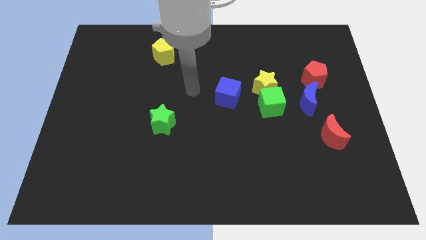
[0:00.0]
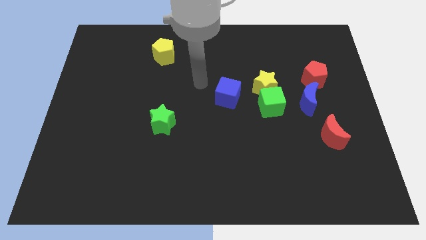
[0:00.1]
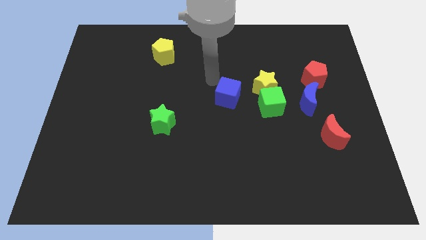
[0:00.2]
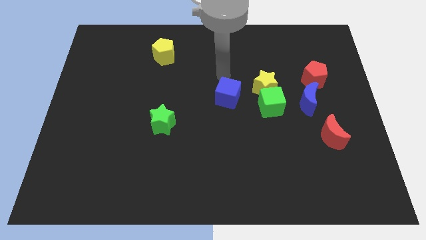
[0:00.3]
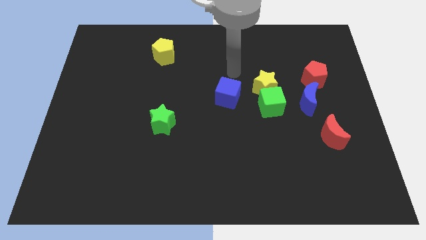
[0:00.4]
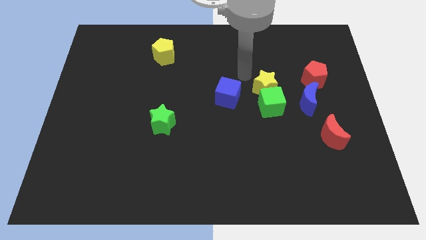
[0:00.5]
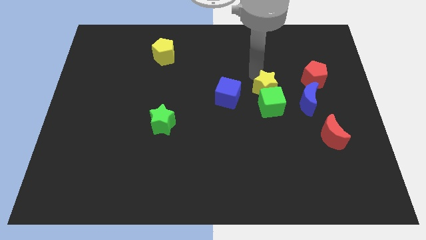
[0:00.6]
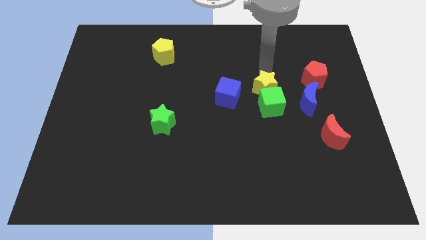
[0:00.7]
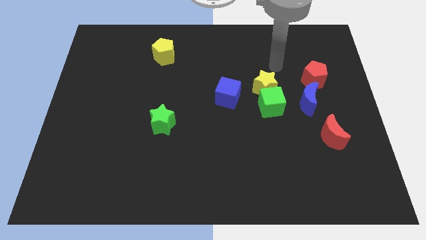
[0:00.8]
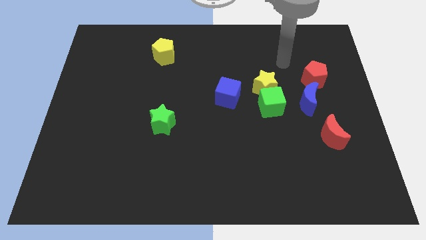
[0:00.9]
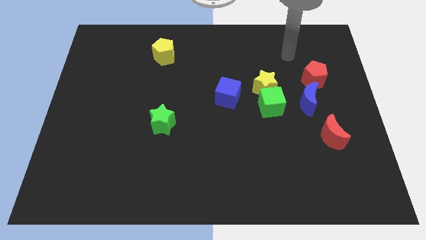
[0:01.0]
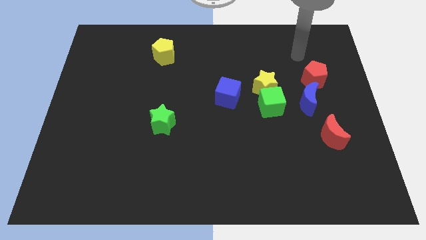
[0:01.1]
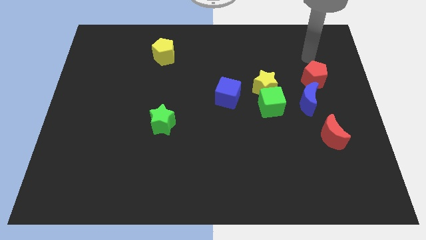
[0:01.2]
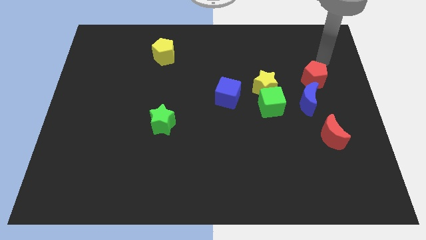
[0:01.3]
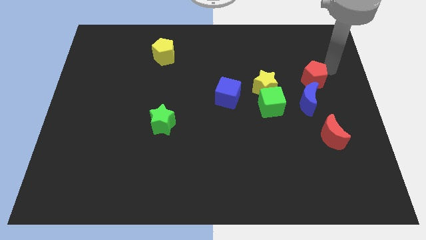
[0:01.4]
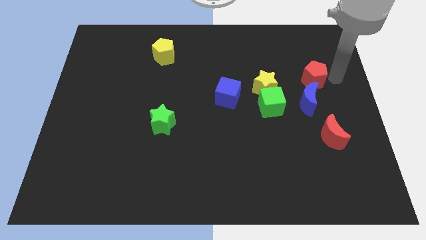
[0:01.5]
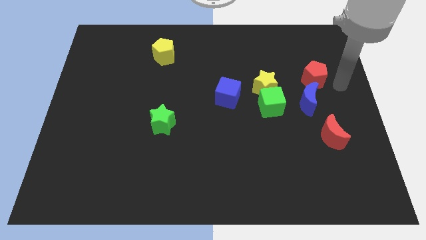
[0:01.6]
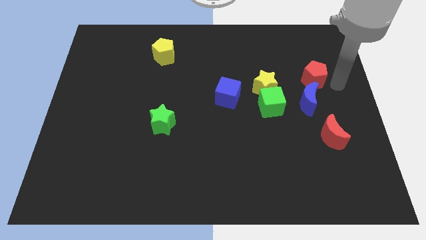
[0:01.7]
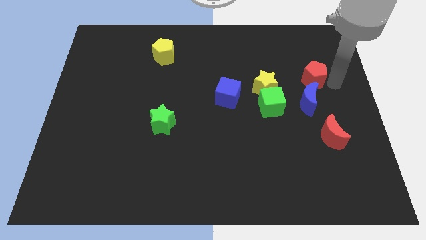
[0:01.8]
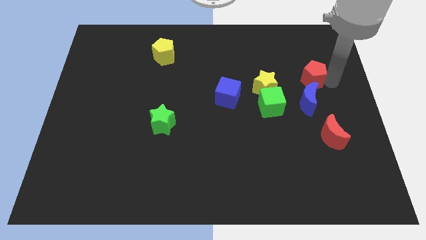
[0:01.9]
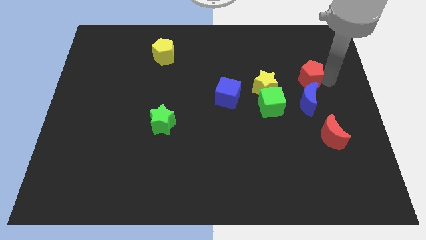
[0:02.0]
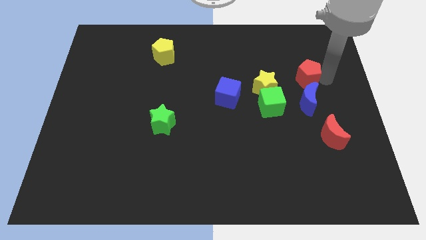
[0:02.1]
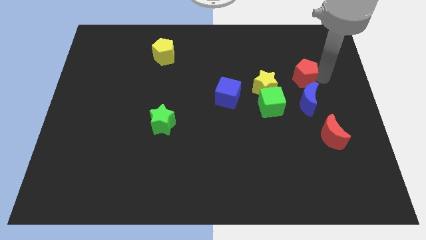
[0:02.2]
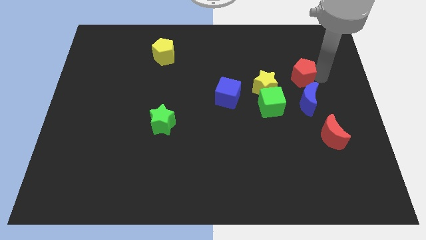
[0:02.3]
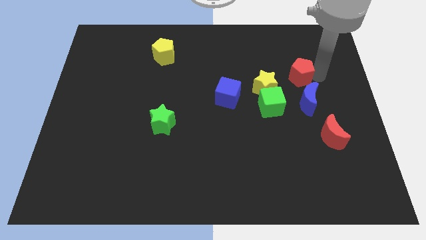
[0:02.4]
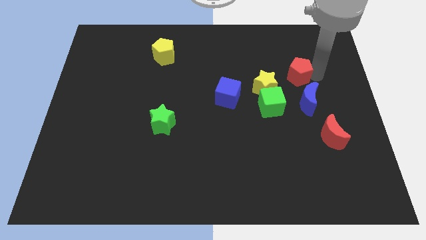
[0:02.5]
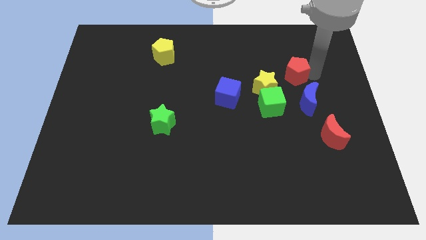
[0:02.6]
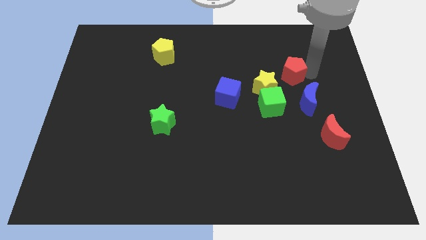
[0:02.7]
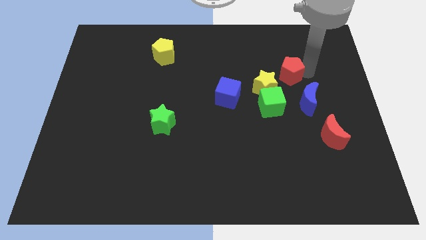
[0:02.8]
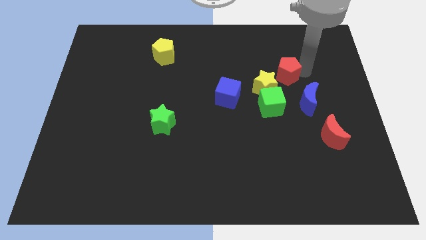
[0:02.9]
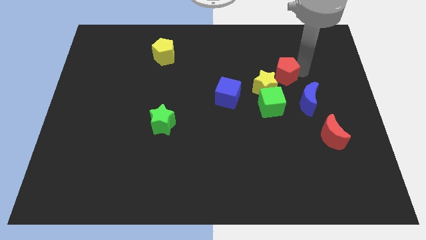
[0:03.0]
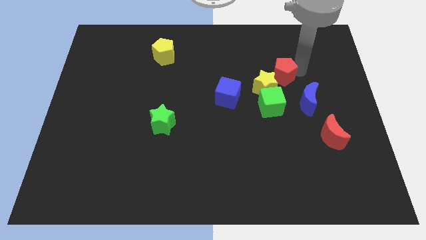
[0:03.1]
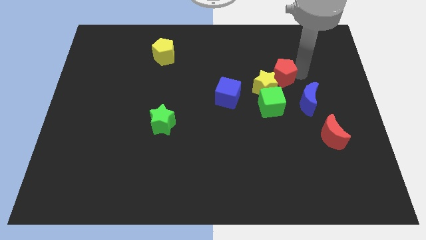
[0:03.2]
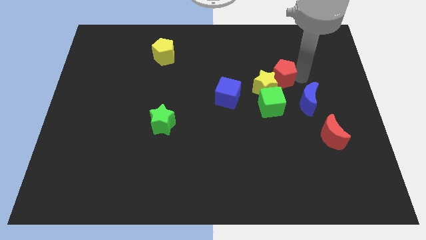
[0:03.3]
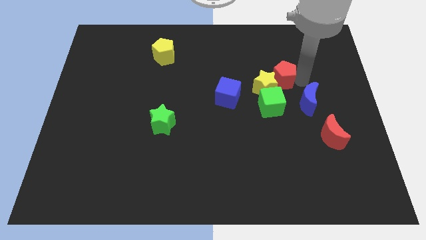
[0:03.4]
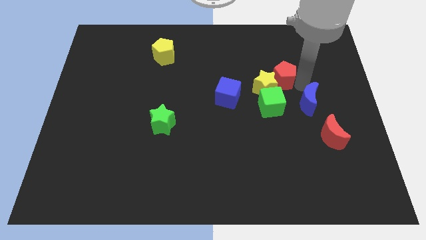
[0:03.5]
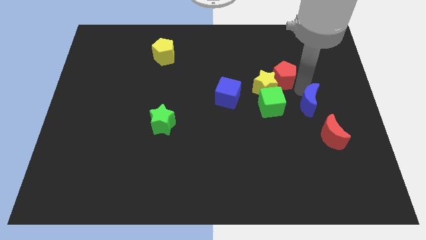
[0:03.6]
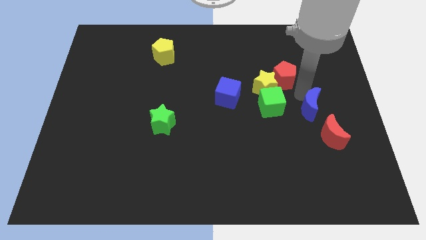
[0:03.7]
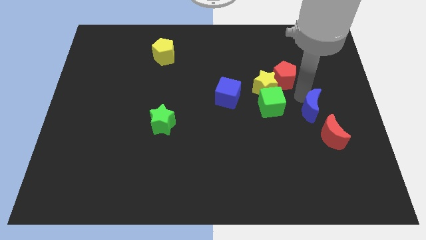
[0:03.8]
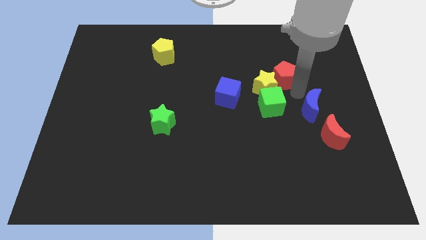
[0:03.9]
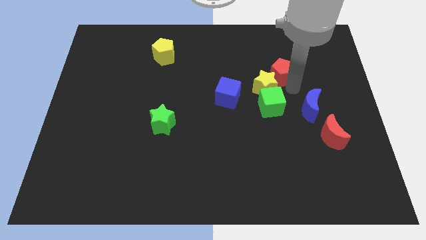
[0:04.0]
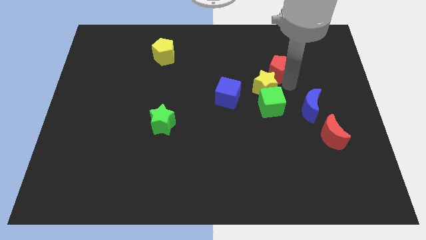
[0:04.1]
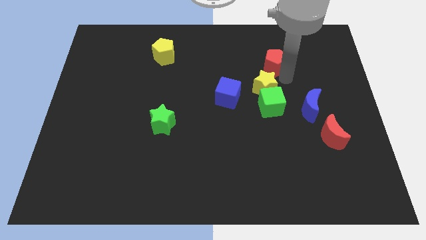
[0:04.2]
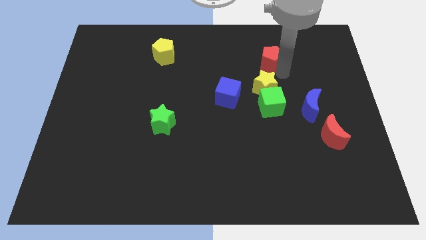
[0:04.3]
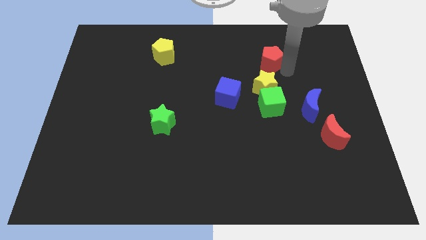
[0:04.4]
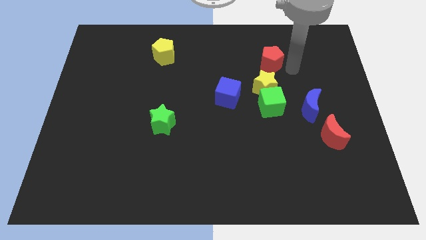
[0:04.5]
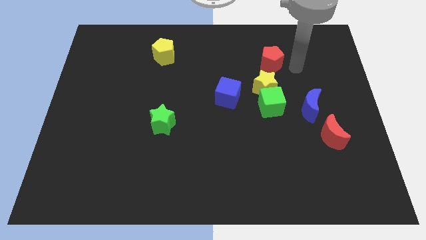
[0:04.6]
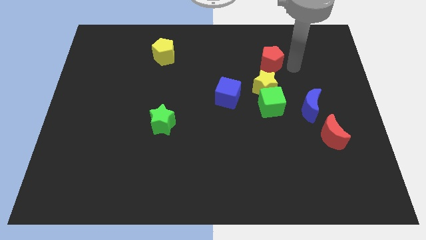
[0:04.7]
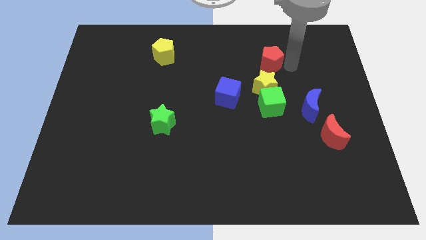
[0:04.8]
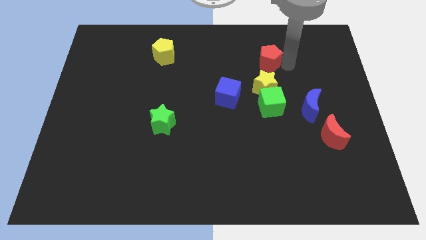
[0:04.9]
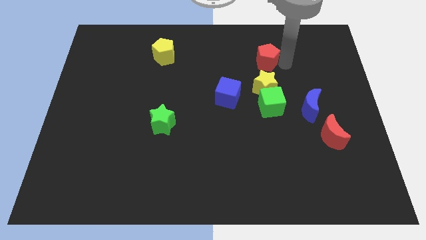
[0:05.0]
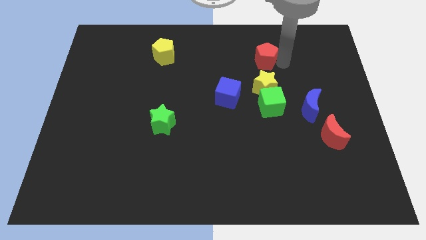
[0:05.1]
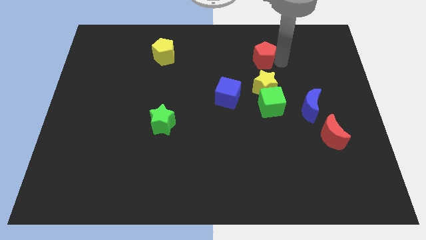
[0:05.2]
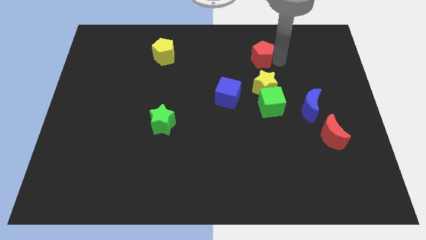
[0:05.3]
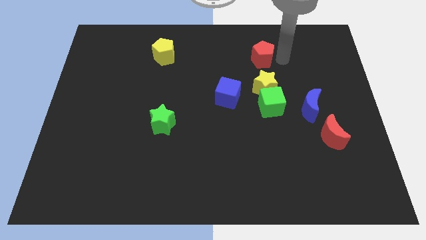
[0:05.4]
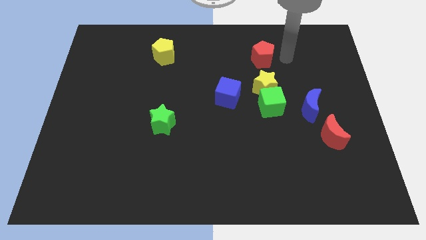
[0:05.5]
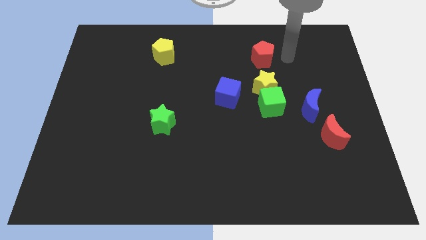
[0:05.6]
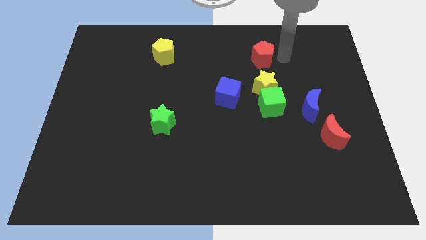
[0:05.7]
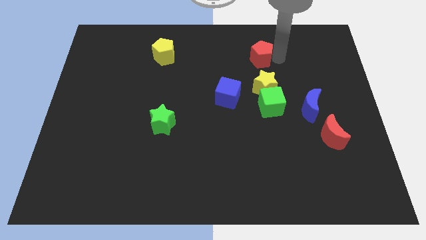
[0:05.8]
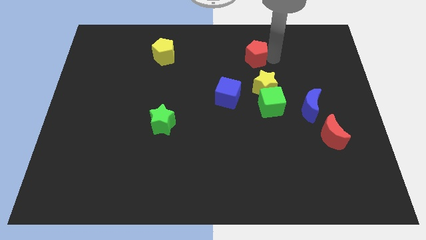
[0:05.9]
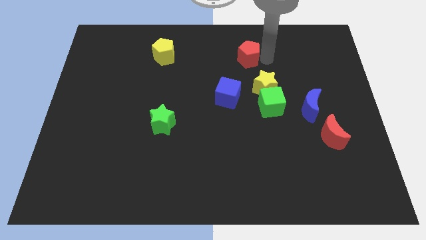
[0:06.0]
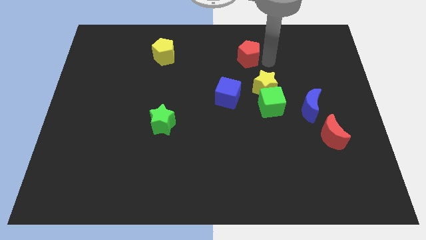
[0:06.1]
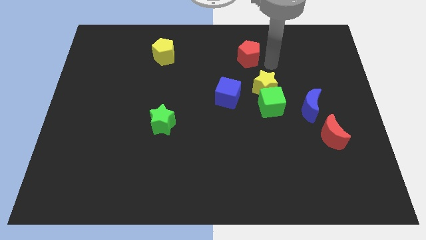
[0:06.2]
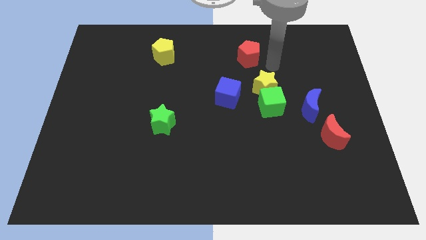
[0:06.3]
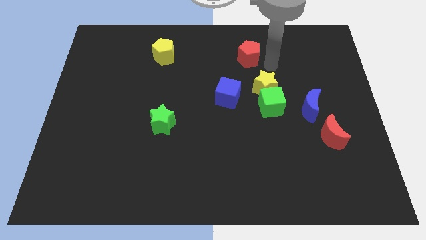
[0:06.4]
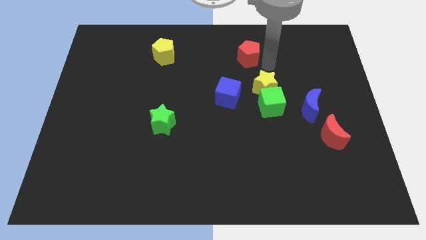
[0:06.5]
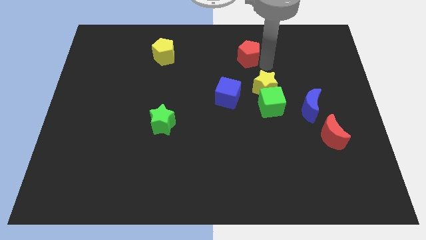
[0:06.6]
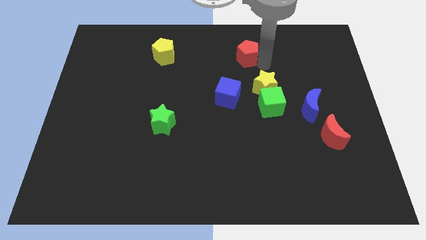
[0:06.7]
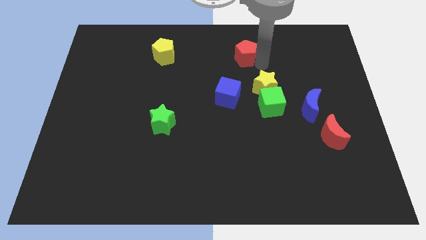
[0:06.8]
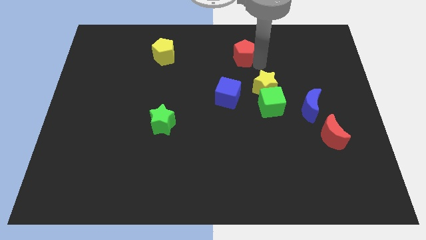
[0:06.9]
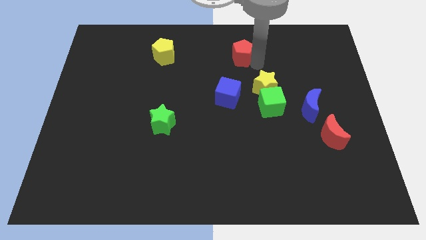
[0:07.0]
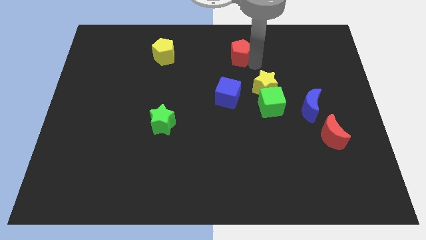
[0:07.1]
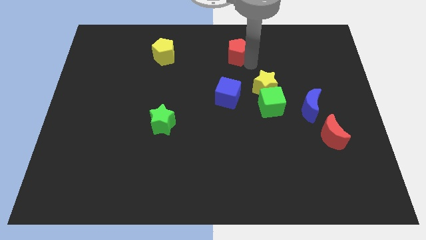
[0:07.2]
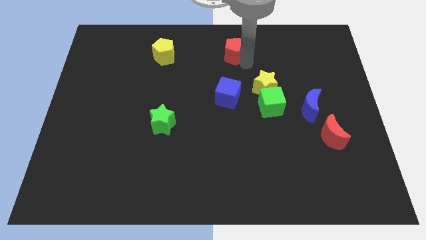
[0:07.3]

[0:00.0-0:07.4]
push the red pentagon to the top side
